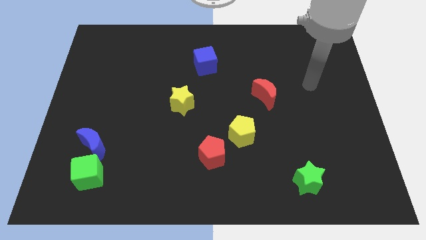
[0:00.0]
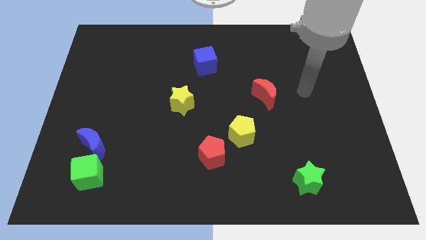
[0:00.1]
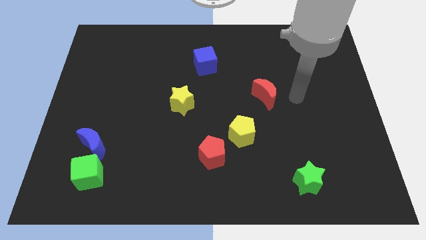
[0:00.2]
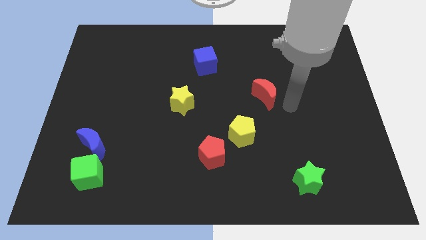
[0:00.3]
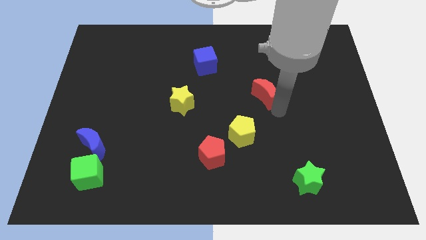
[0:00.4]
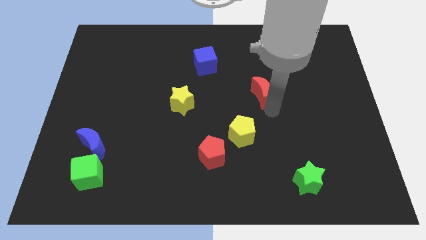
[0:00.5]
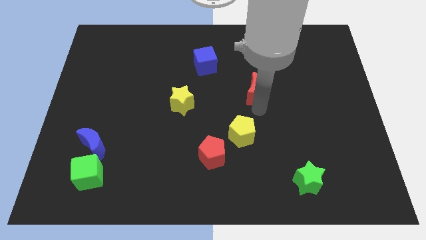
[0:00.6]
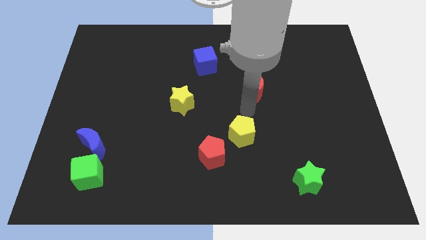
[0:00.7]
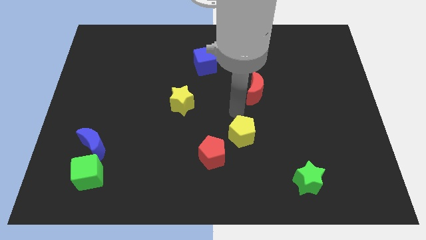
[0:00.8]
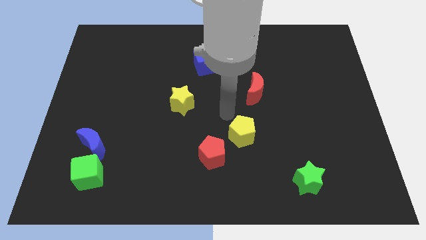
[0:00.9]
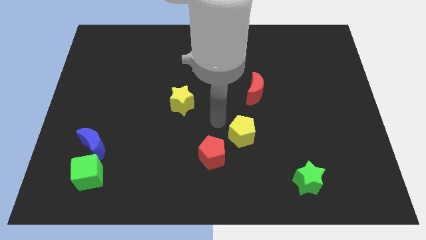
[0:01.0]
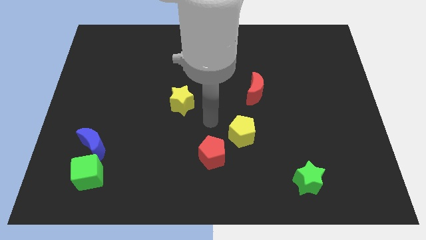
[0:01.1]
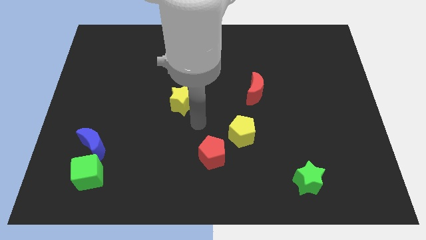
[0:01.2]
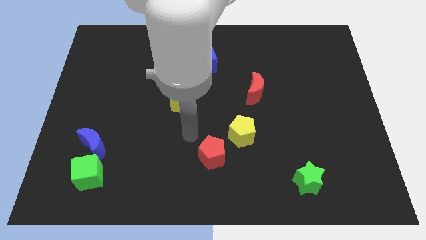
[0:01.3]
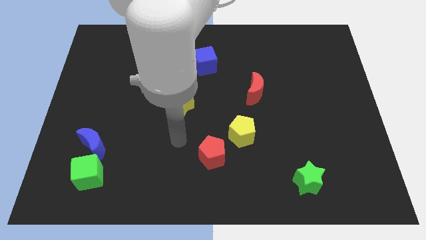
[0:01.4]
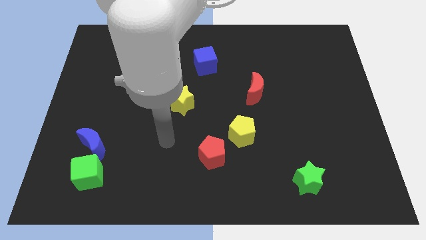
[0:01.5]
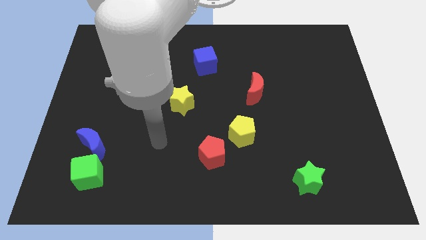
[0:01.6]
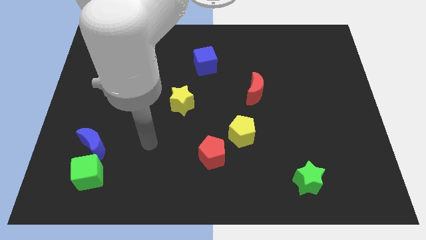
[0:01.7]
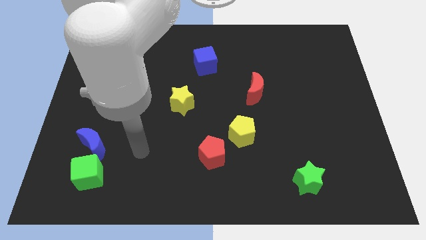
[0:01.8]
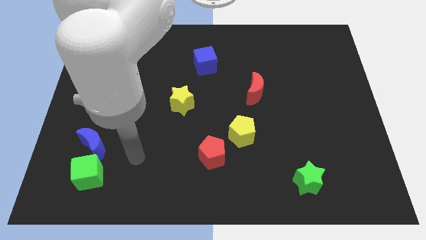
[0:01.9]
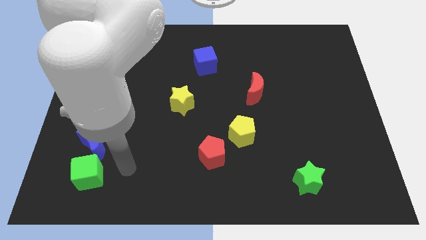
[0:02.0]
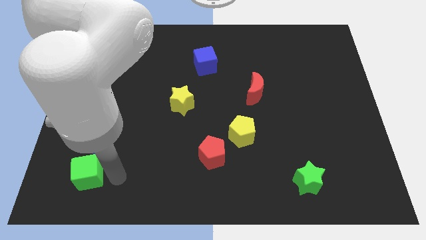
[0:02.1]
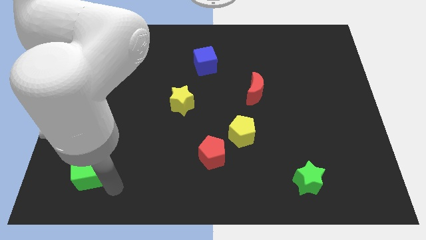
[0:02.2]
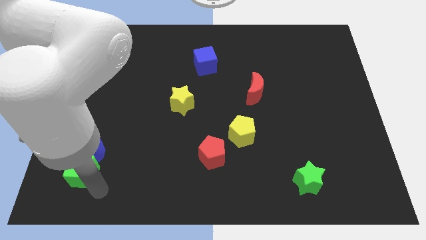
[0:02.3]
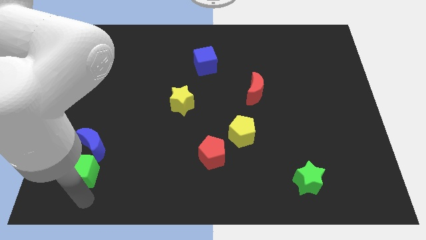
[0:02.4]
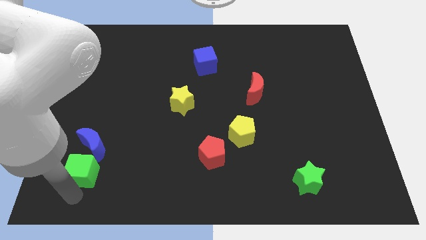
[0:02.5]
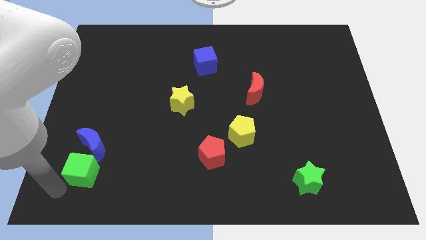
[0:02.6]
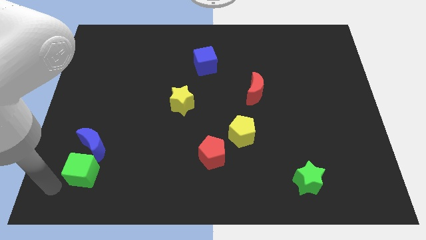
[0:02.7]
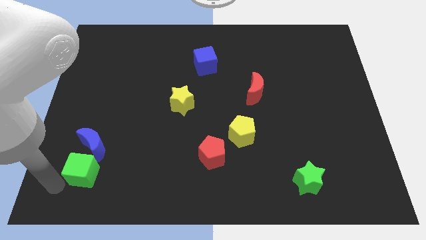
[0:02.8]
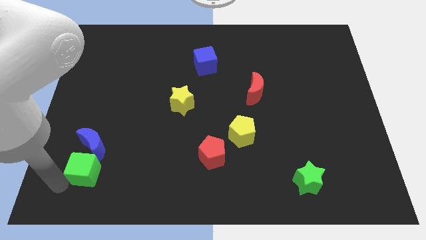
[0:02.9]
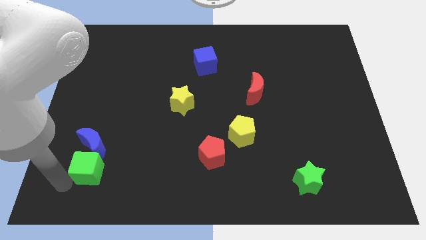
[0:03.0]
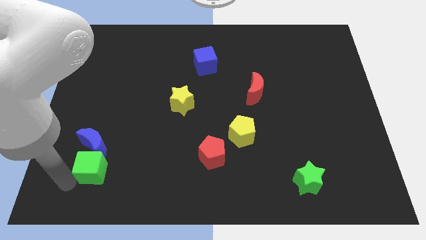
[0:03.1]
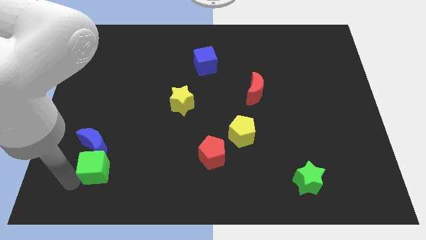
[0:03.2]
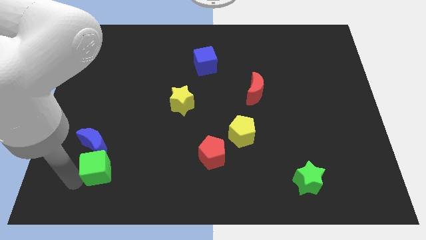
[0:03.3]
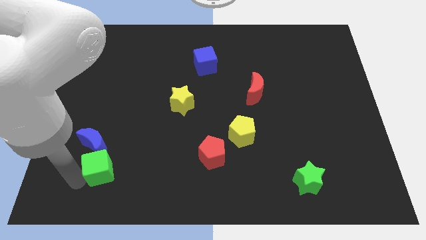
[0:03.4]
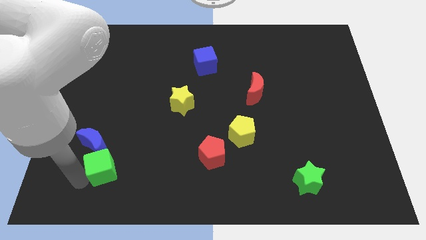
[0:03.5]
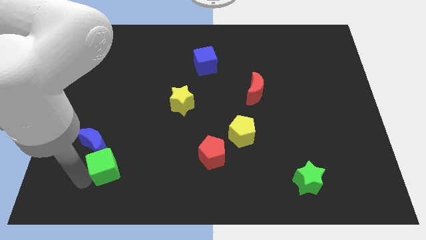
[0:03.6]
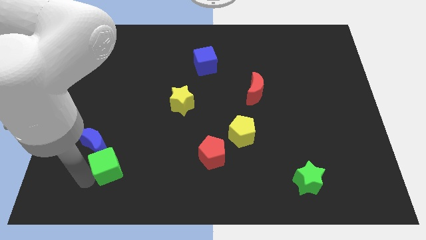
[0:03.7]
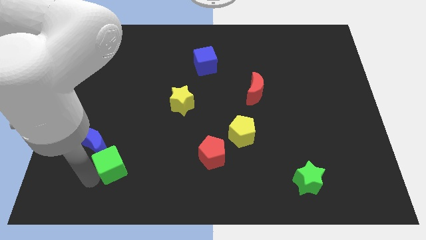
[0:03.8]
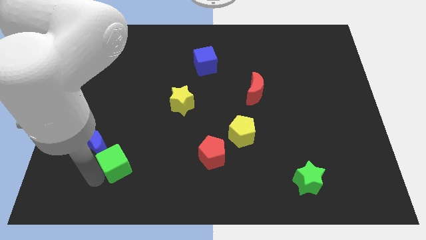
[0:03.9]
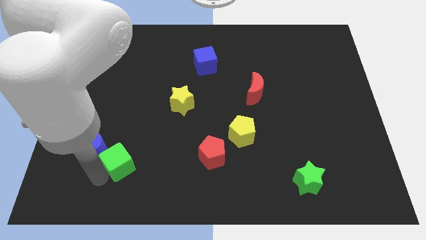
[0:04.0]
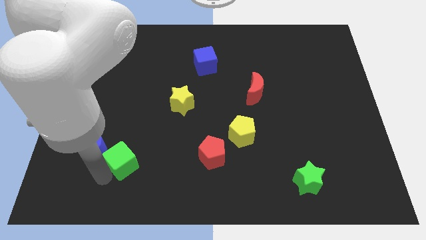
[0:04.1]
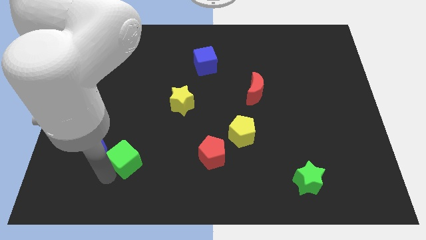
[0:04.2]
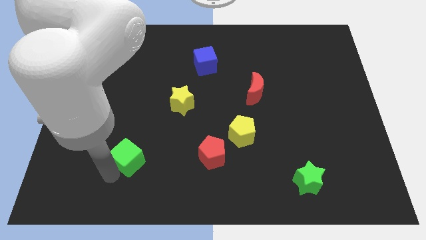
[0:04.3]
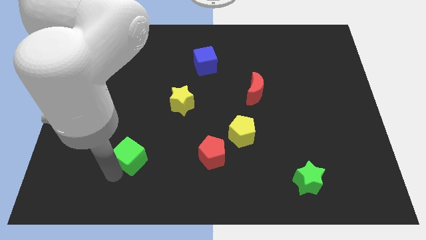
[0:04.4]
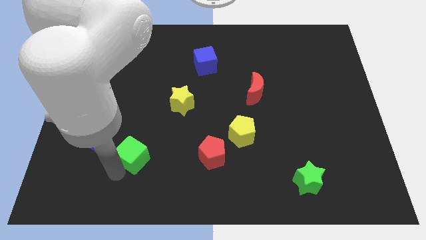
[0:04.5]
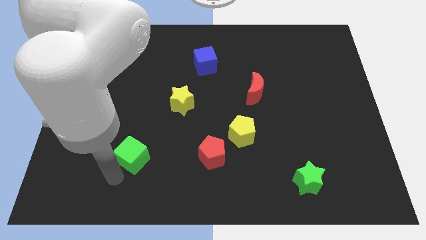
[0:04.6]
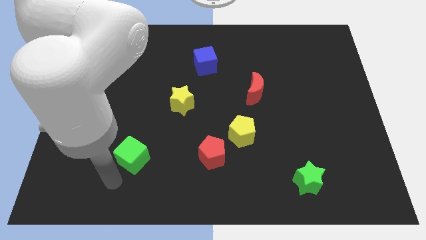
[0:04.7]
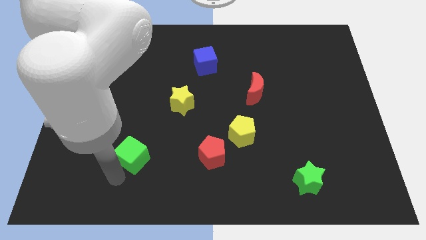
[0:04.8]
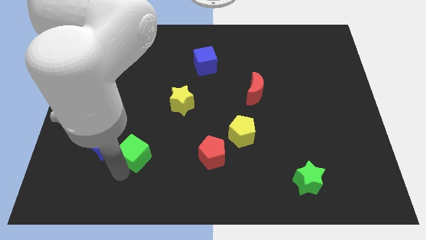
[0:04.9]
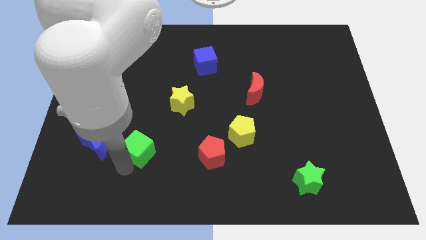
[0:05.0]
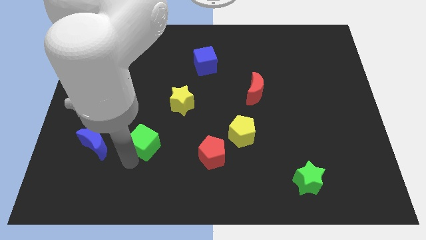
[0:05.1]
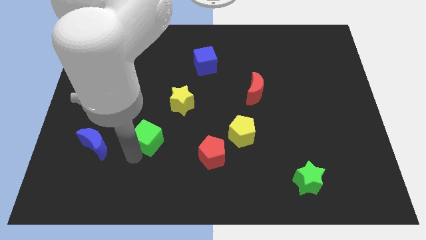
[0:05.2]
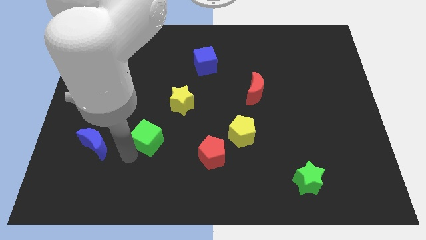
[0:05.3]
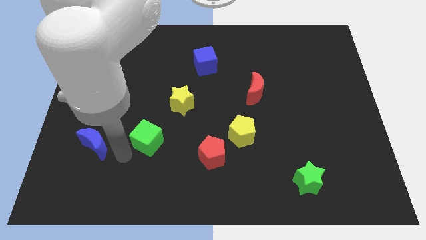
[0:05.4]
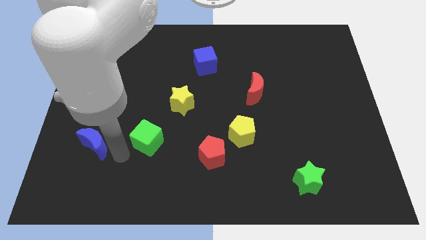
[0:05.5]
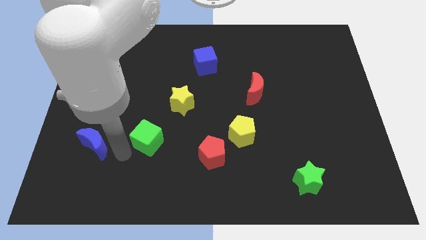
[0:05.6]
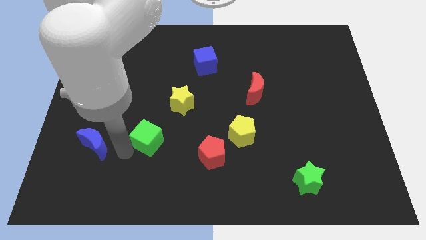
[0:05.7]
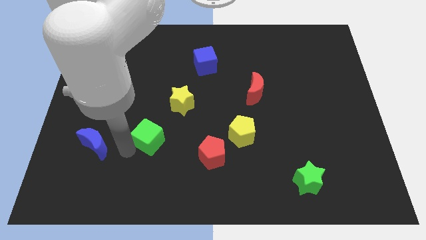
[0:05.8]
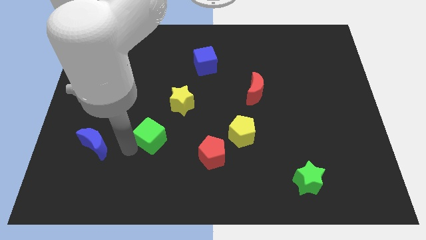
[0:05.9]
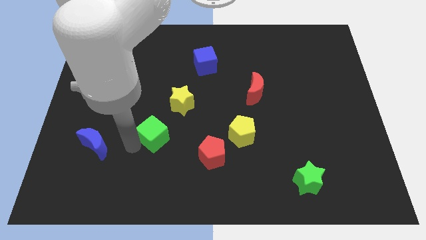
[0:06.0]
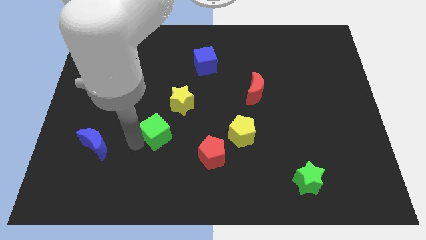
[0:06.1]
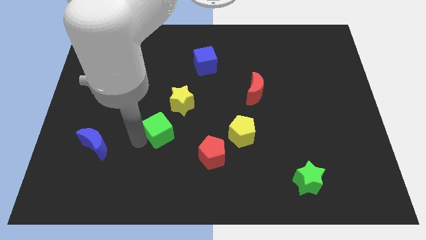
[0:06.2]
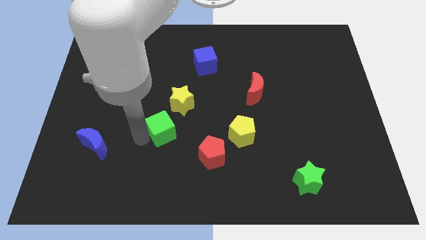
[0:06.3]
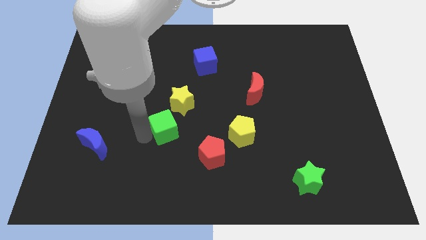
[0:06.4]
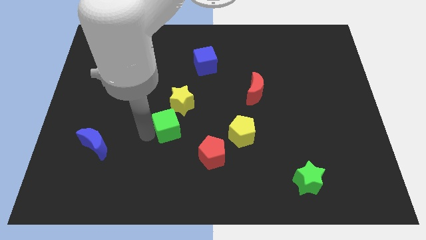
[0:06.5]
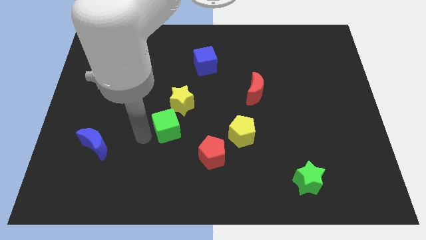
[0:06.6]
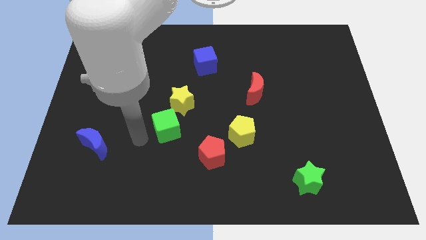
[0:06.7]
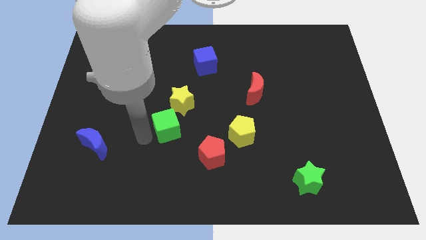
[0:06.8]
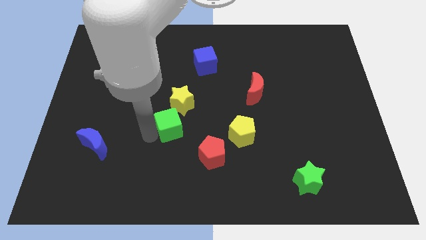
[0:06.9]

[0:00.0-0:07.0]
push the green cube to the middle

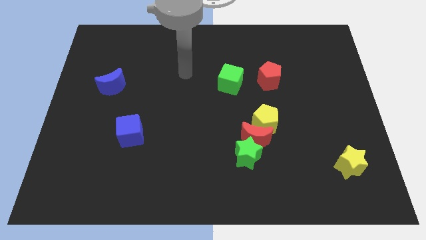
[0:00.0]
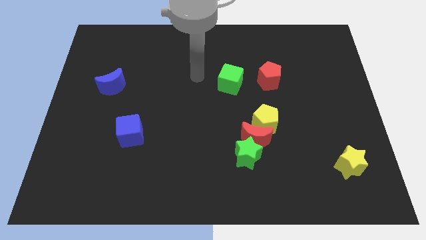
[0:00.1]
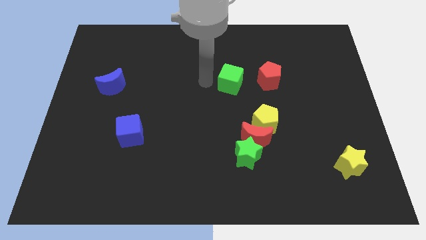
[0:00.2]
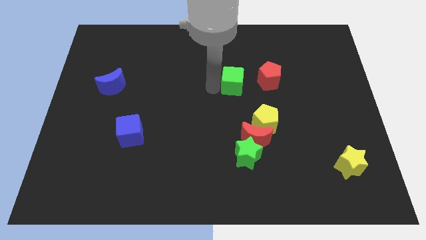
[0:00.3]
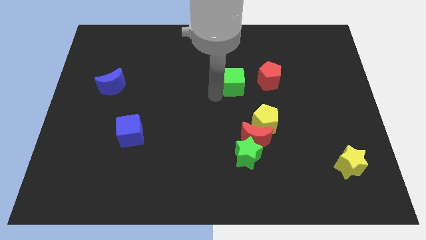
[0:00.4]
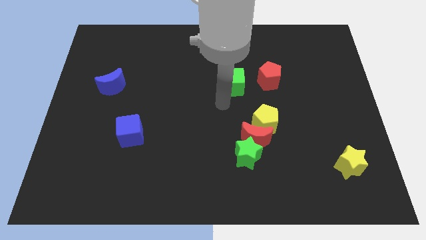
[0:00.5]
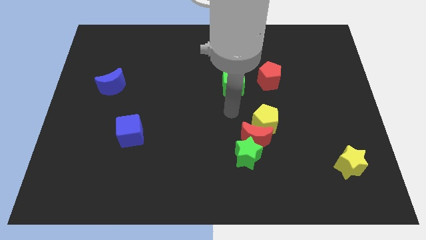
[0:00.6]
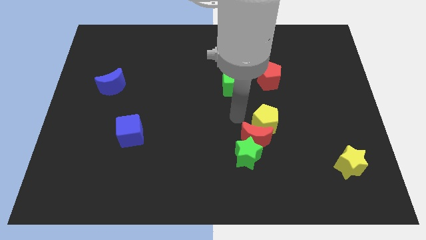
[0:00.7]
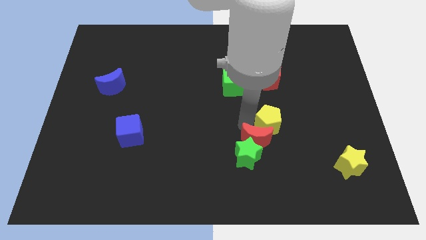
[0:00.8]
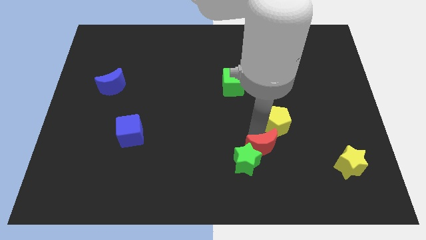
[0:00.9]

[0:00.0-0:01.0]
push the green star to the bottom side
